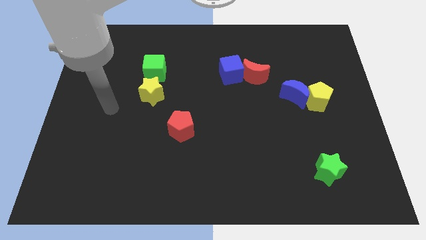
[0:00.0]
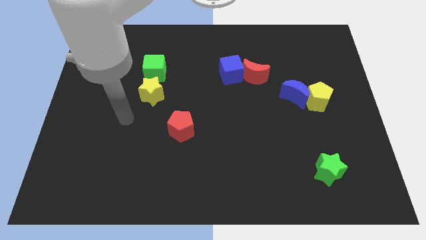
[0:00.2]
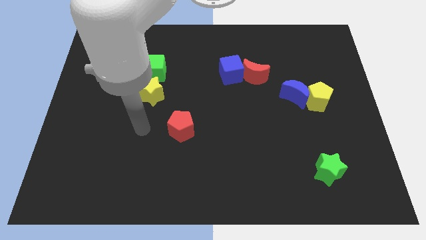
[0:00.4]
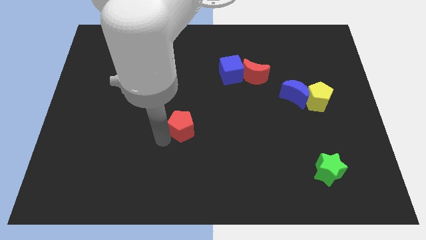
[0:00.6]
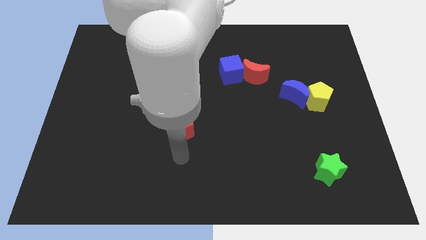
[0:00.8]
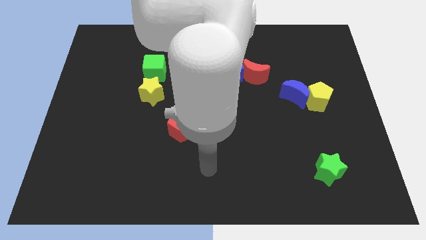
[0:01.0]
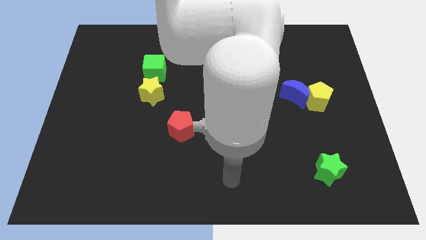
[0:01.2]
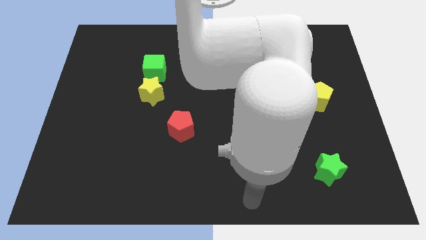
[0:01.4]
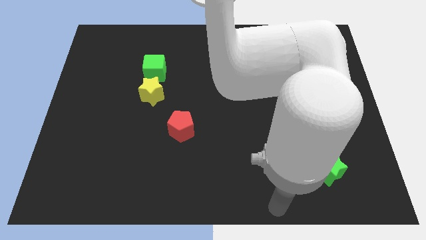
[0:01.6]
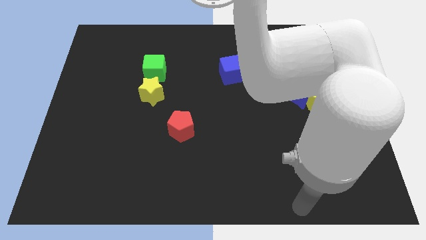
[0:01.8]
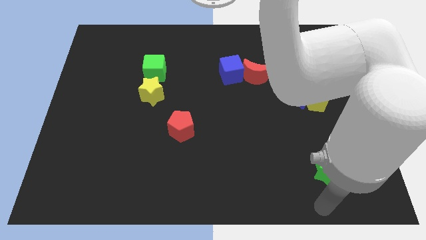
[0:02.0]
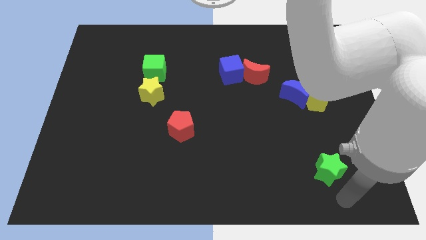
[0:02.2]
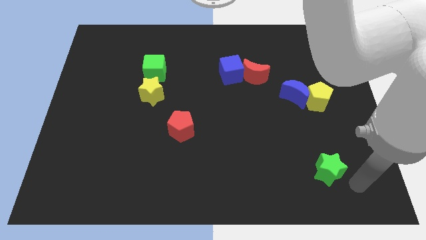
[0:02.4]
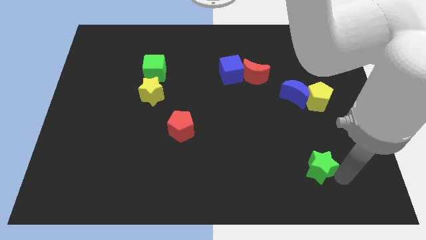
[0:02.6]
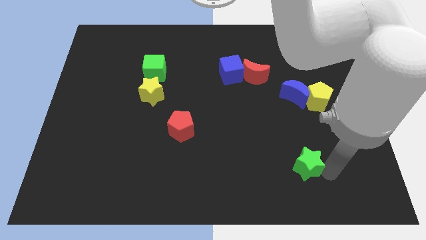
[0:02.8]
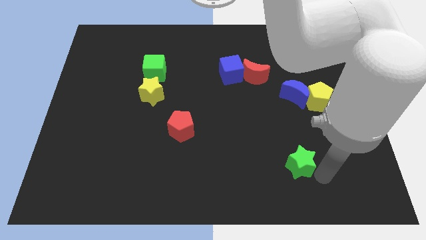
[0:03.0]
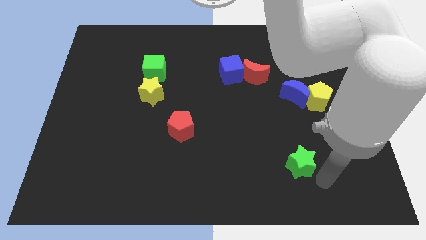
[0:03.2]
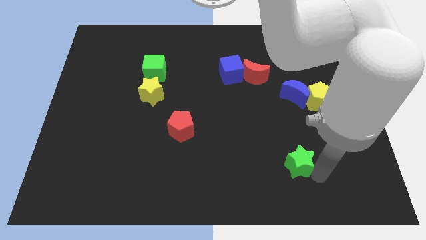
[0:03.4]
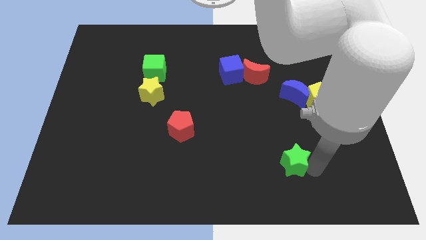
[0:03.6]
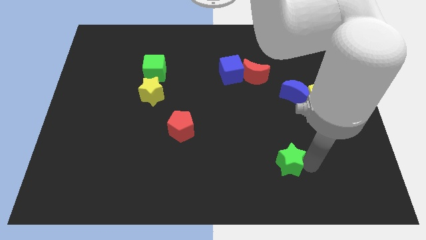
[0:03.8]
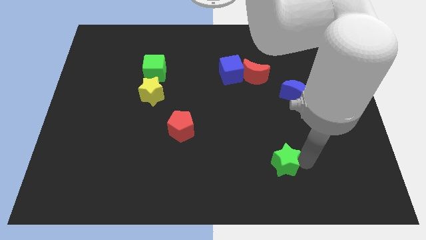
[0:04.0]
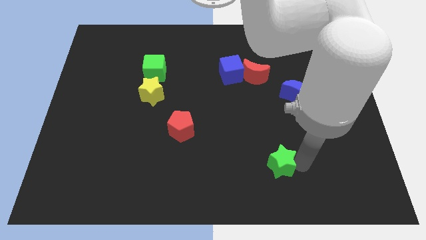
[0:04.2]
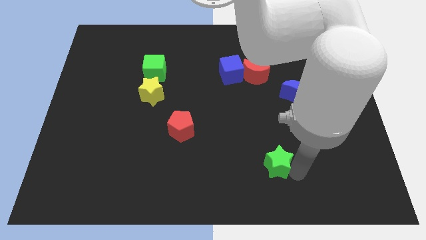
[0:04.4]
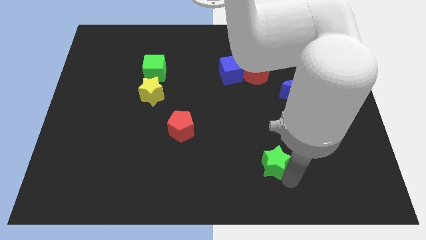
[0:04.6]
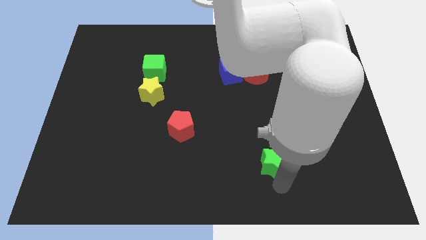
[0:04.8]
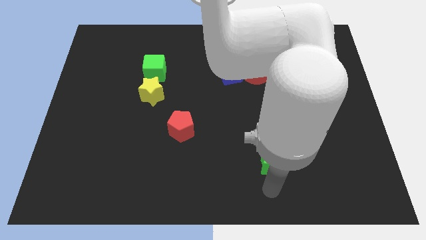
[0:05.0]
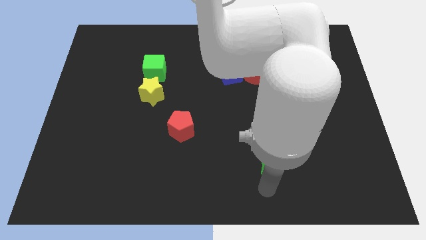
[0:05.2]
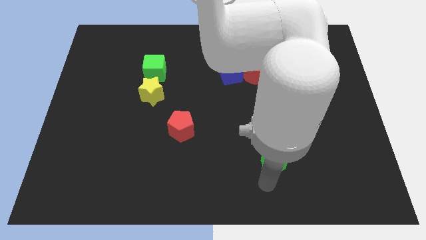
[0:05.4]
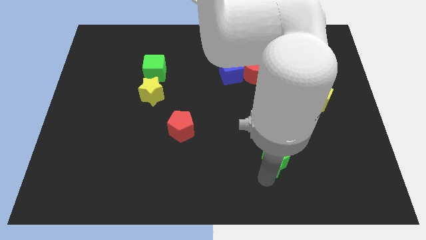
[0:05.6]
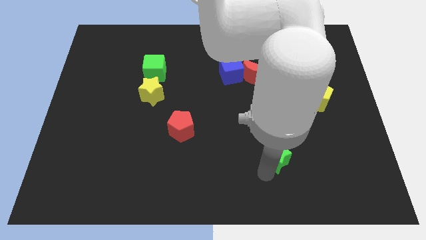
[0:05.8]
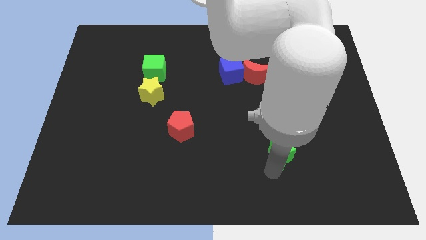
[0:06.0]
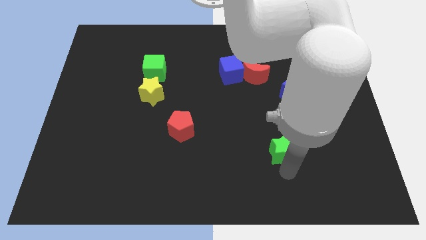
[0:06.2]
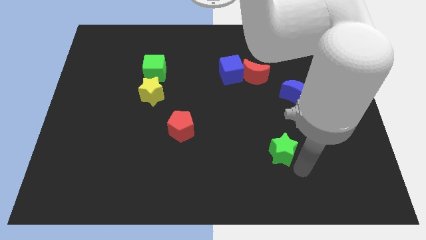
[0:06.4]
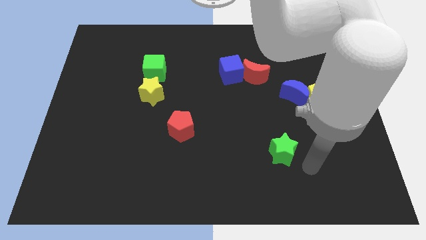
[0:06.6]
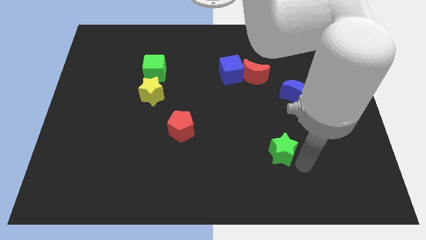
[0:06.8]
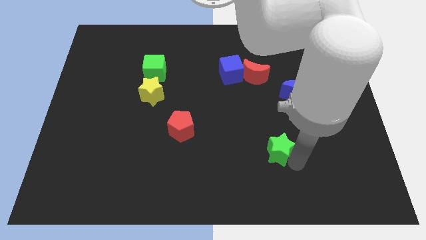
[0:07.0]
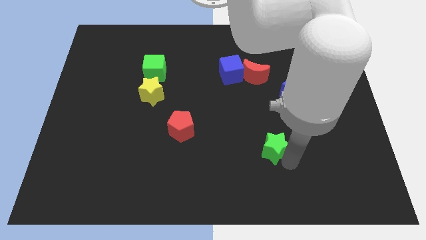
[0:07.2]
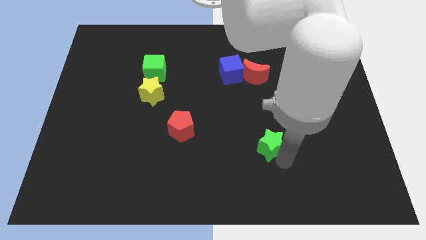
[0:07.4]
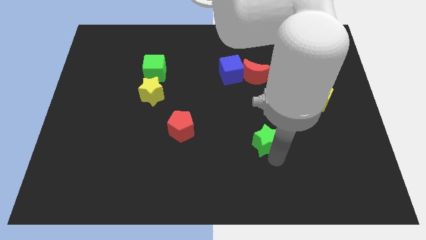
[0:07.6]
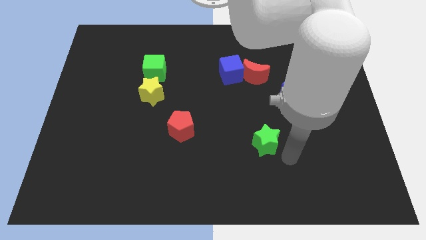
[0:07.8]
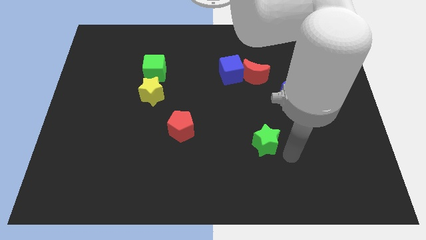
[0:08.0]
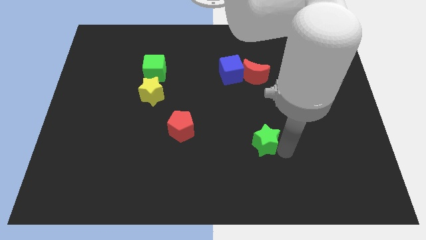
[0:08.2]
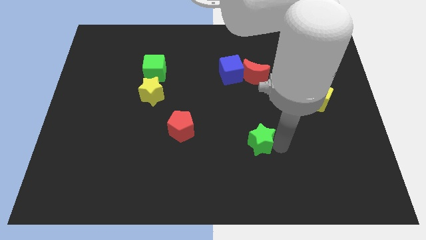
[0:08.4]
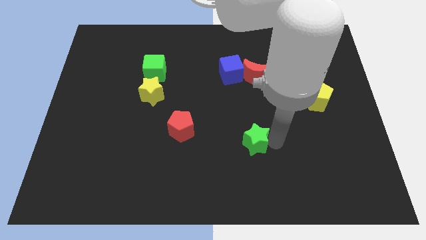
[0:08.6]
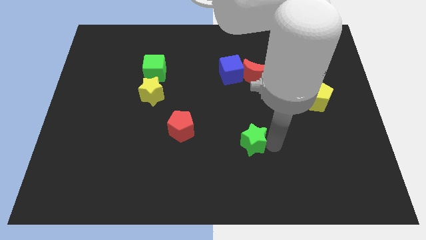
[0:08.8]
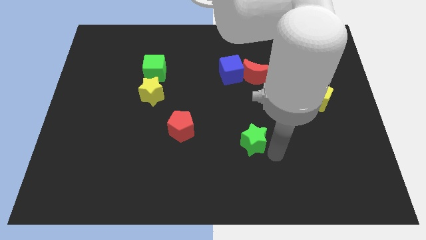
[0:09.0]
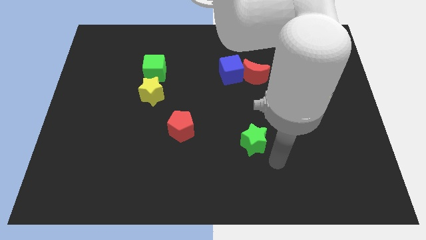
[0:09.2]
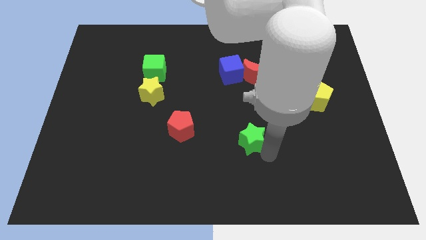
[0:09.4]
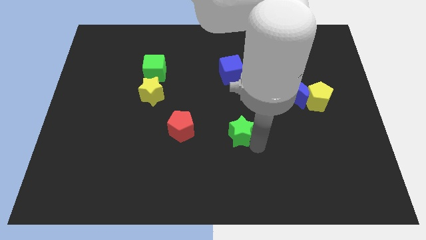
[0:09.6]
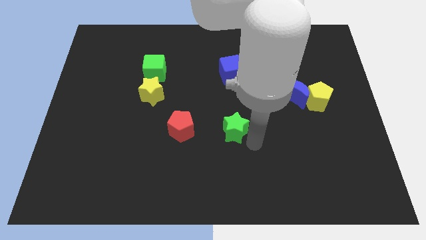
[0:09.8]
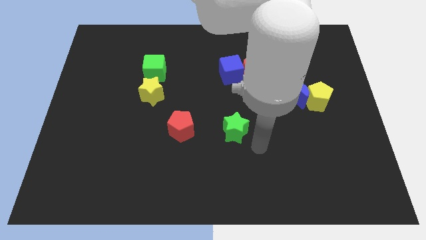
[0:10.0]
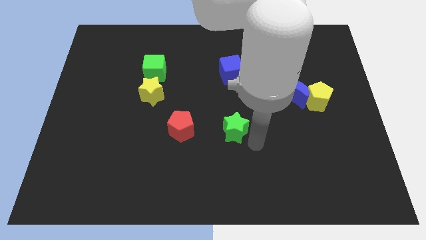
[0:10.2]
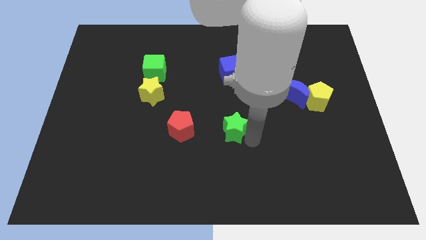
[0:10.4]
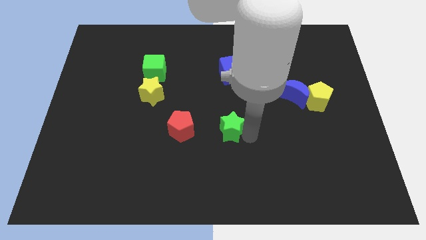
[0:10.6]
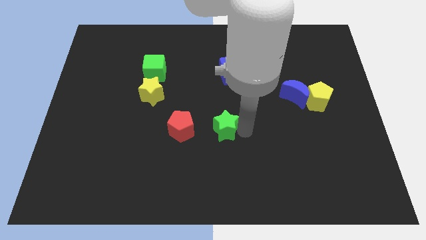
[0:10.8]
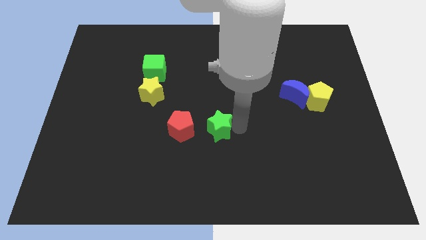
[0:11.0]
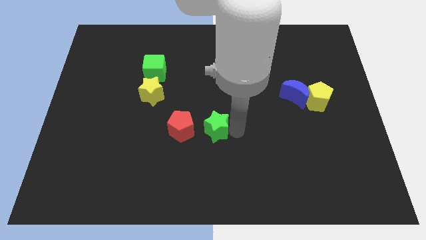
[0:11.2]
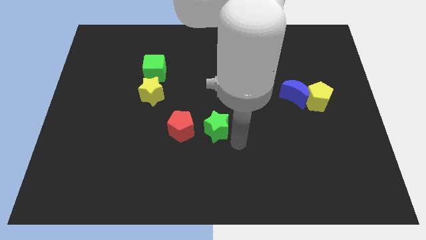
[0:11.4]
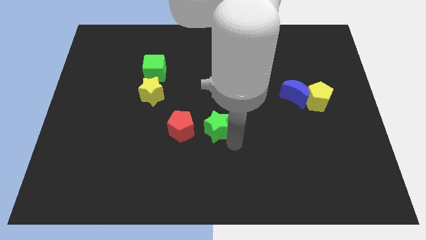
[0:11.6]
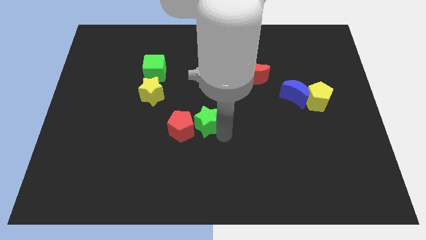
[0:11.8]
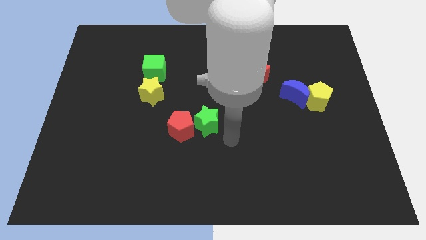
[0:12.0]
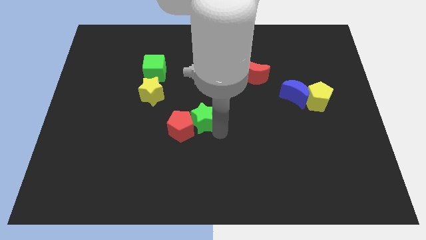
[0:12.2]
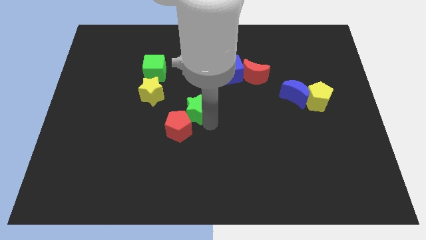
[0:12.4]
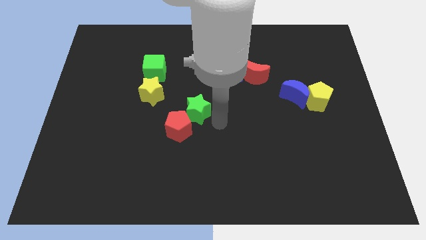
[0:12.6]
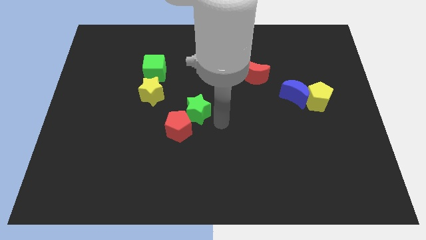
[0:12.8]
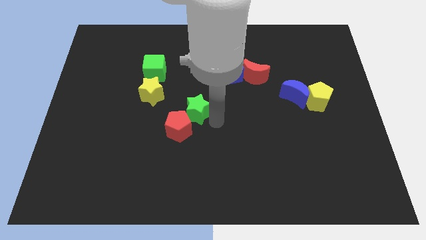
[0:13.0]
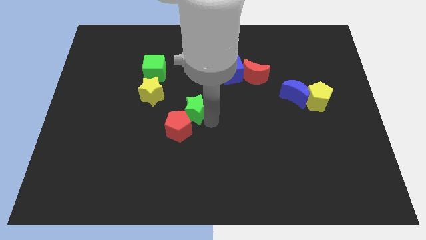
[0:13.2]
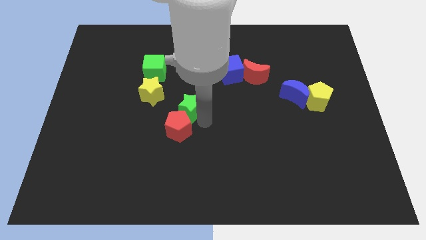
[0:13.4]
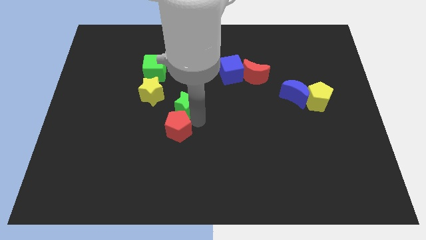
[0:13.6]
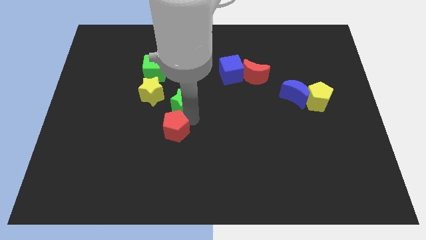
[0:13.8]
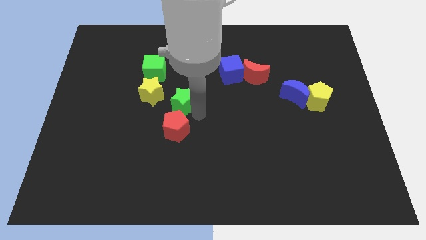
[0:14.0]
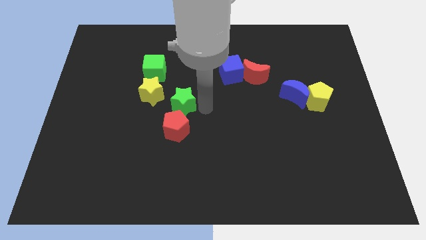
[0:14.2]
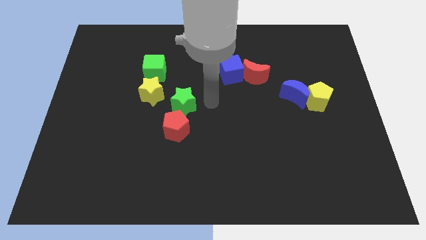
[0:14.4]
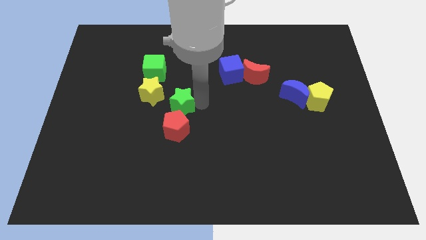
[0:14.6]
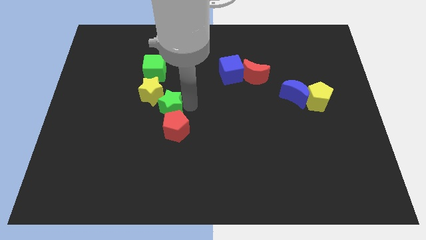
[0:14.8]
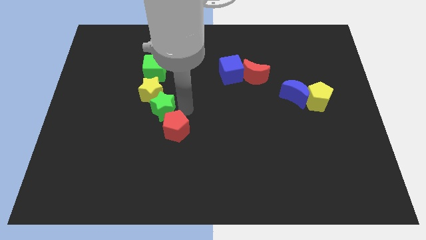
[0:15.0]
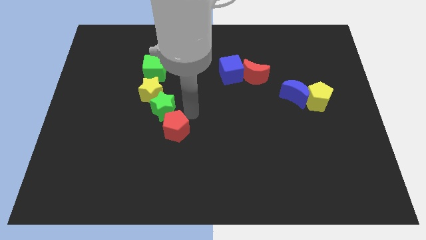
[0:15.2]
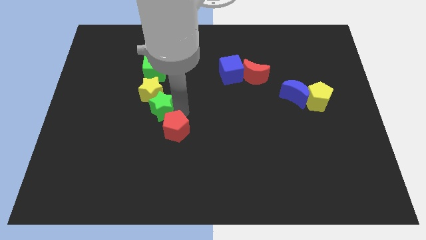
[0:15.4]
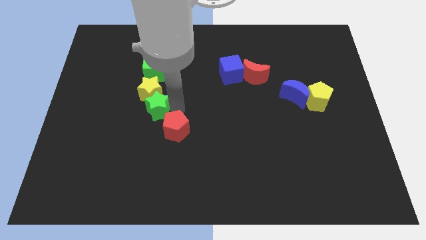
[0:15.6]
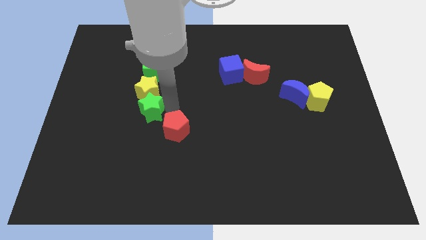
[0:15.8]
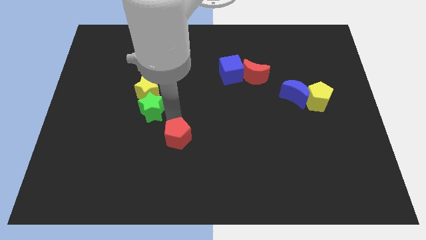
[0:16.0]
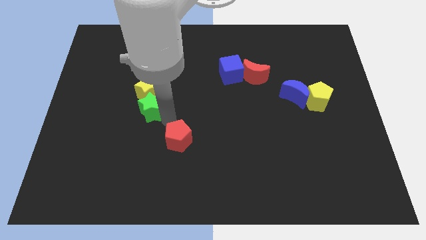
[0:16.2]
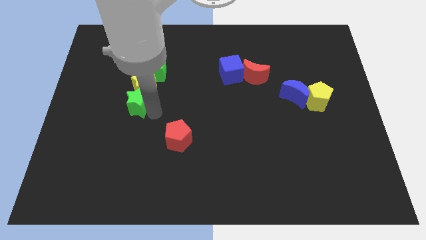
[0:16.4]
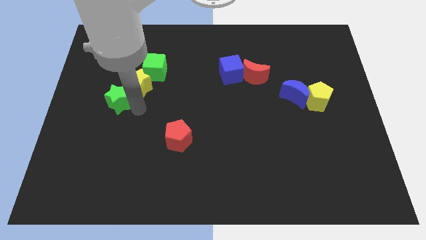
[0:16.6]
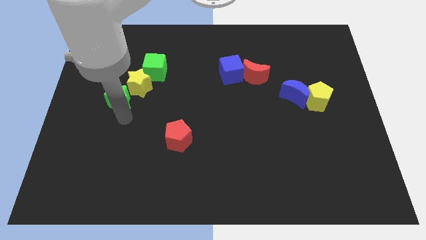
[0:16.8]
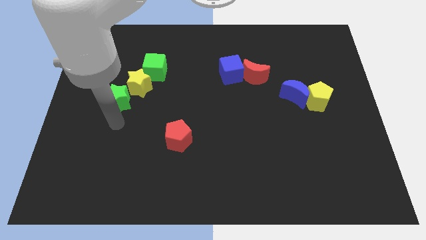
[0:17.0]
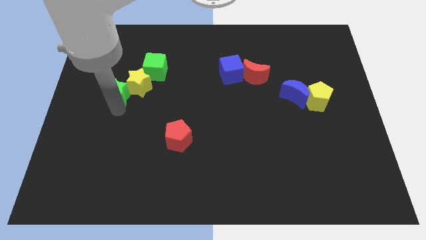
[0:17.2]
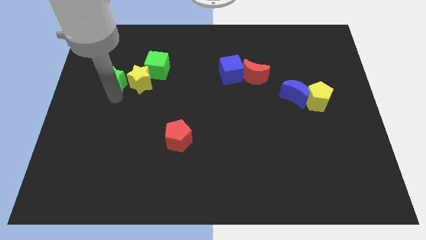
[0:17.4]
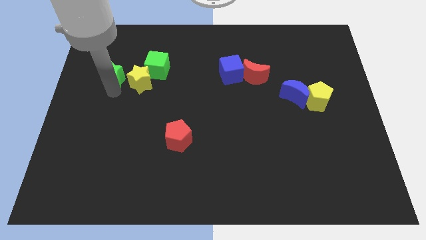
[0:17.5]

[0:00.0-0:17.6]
push the green star diagonally up and to the left of the yellow star
